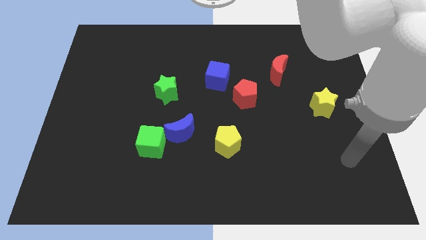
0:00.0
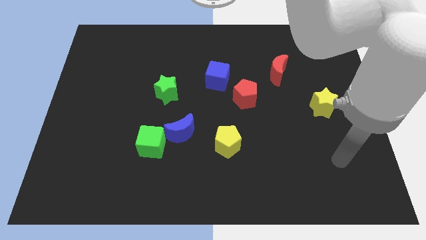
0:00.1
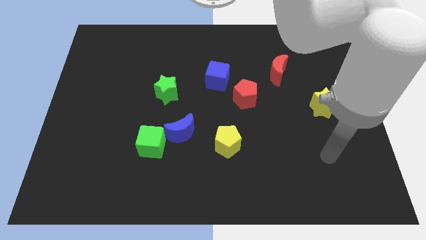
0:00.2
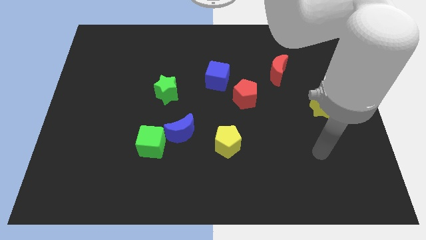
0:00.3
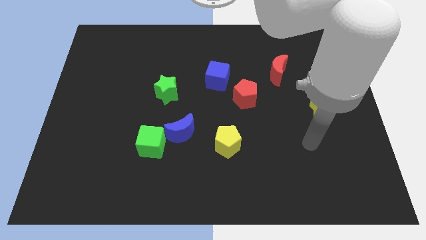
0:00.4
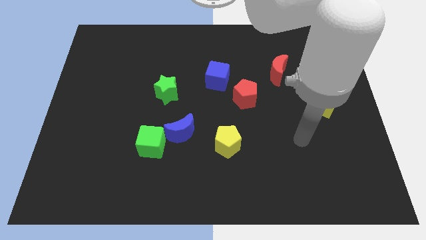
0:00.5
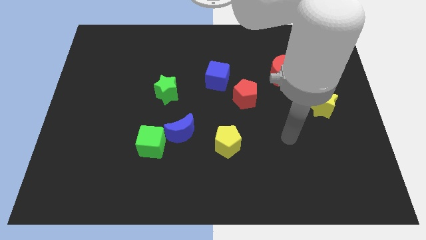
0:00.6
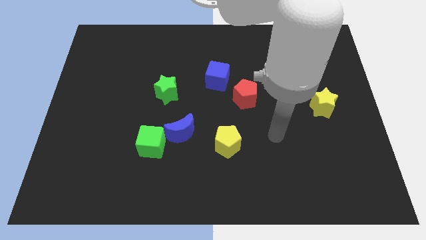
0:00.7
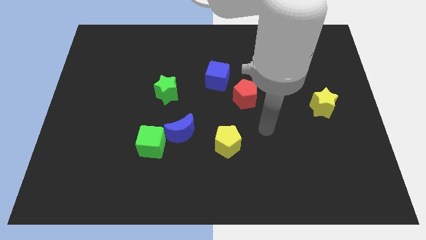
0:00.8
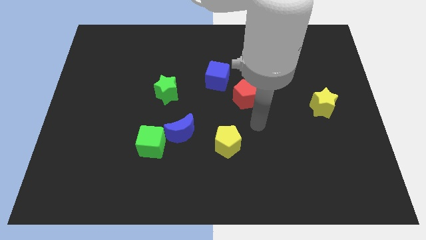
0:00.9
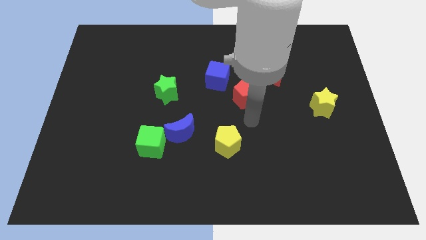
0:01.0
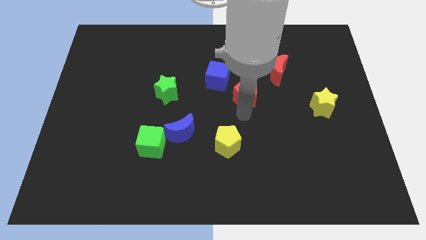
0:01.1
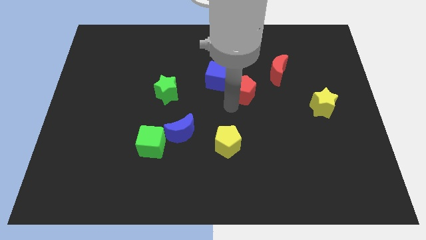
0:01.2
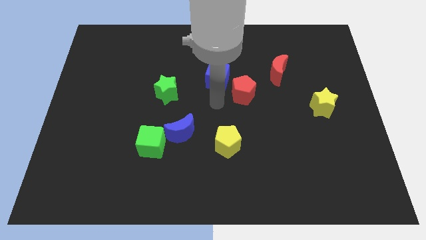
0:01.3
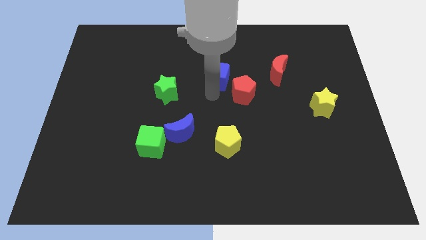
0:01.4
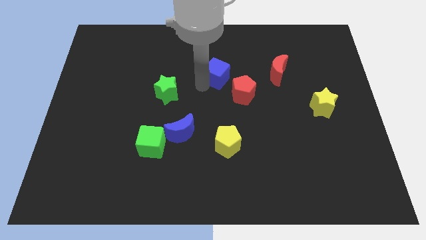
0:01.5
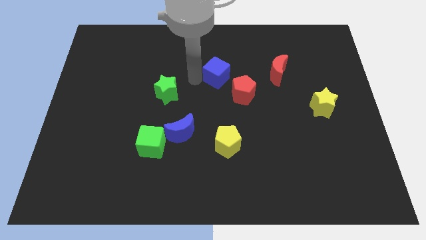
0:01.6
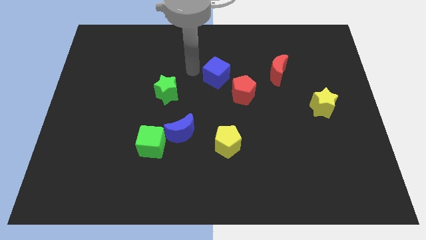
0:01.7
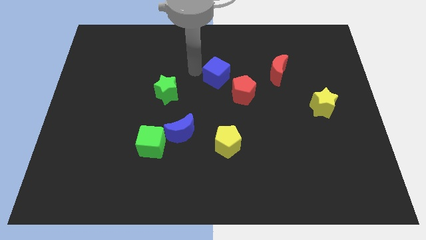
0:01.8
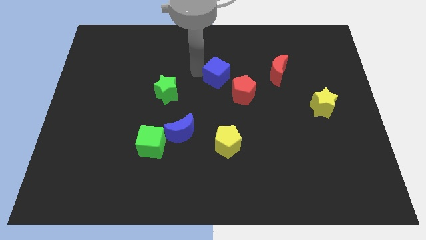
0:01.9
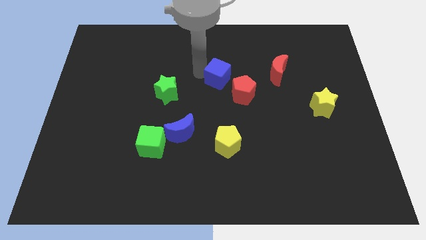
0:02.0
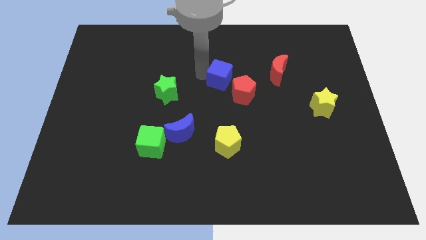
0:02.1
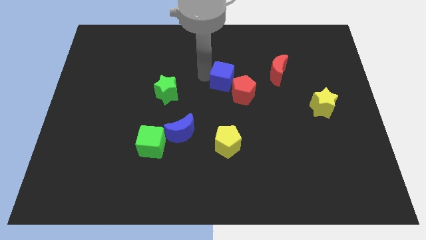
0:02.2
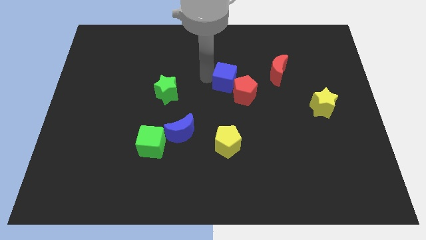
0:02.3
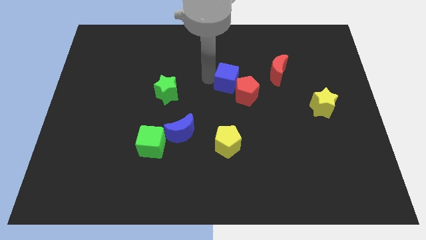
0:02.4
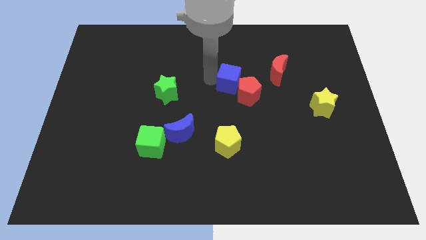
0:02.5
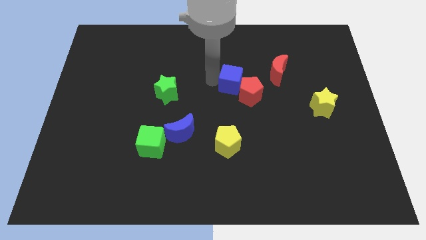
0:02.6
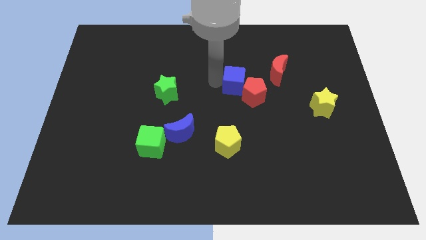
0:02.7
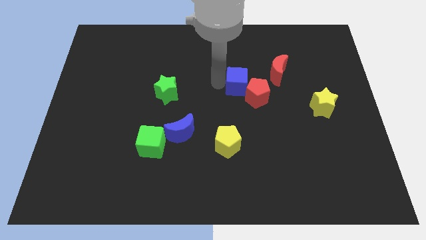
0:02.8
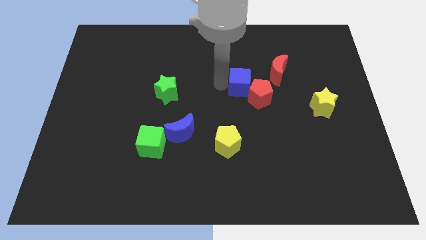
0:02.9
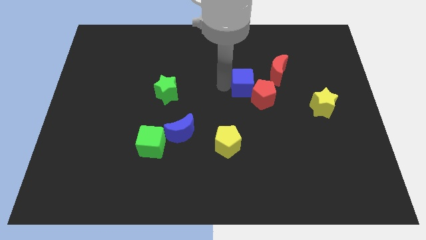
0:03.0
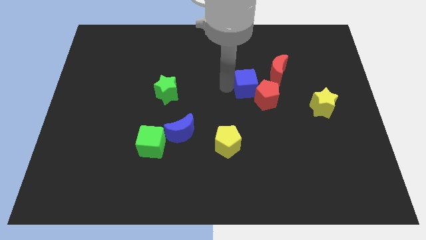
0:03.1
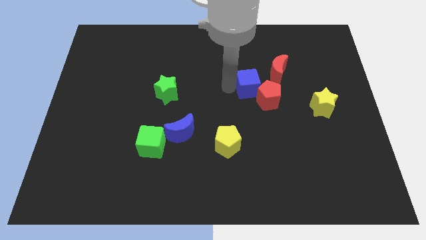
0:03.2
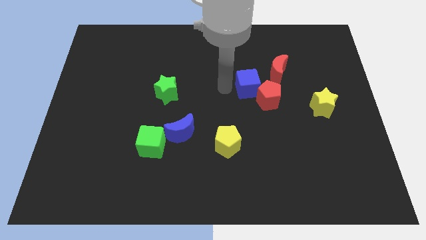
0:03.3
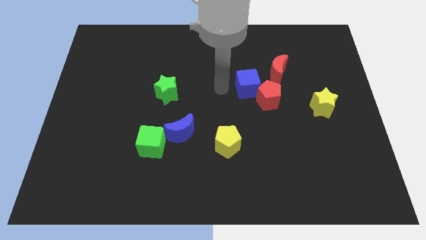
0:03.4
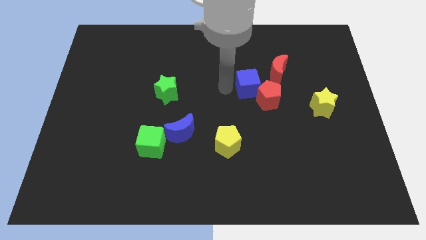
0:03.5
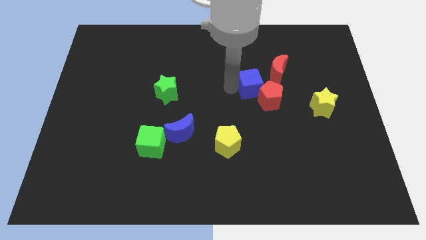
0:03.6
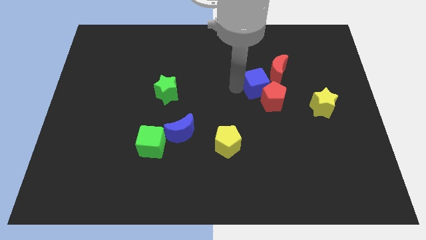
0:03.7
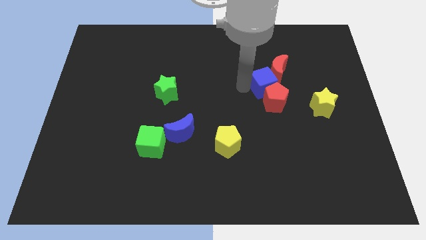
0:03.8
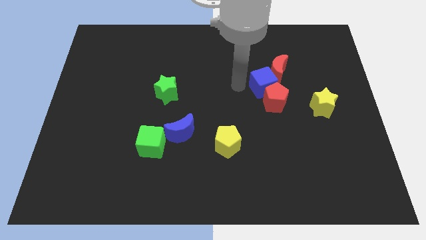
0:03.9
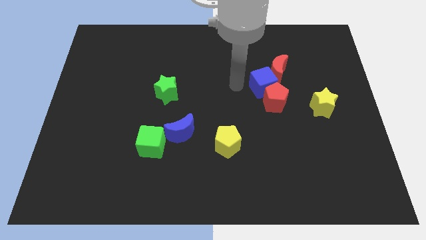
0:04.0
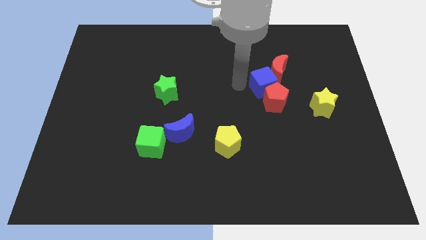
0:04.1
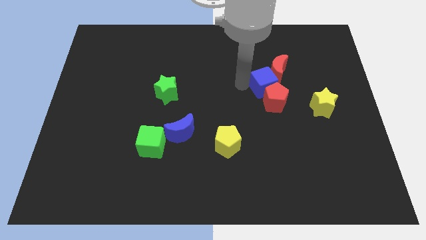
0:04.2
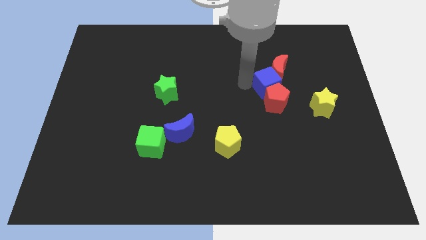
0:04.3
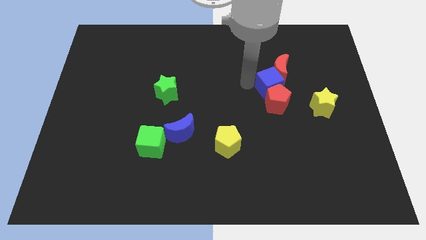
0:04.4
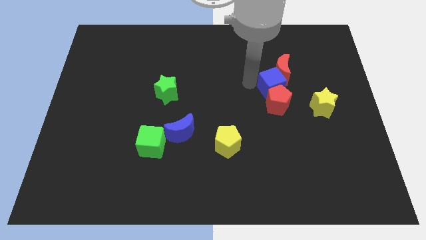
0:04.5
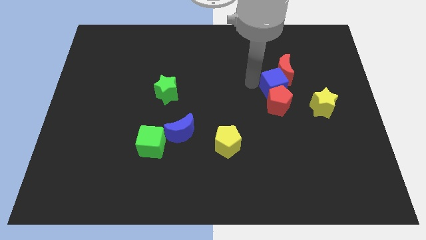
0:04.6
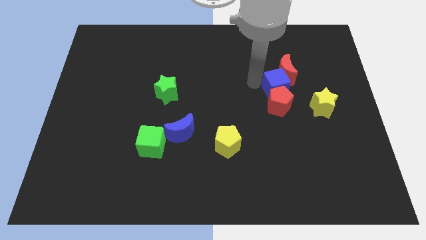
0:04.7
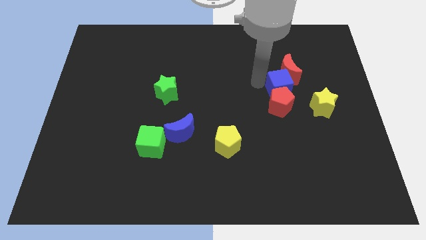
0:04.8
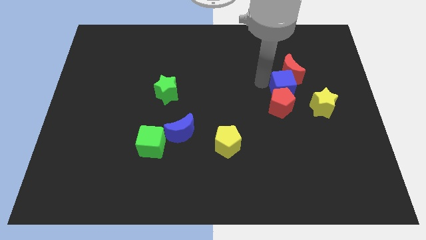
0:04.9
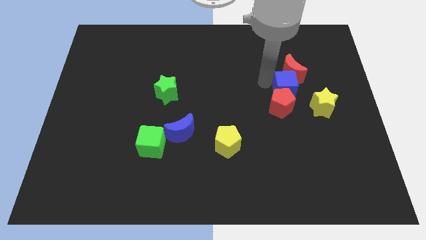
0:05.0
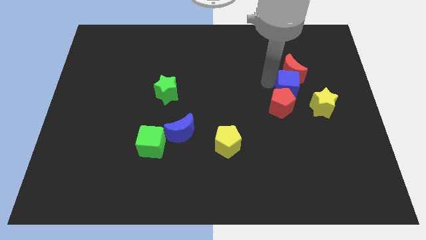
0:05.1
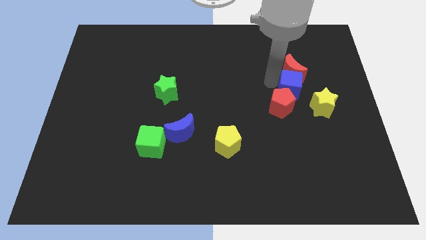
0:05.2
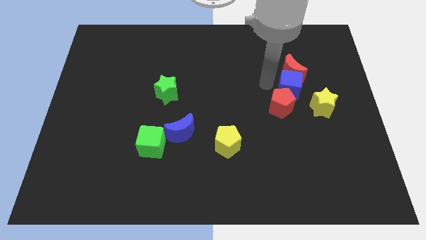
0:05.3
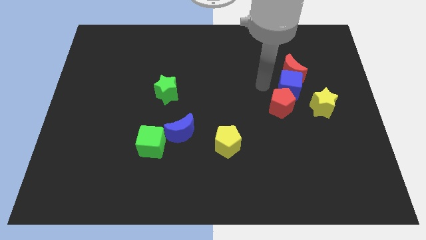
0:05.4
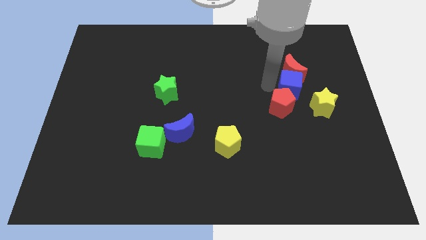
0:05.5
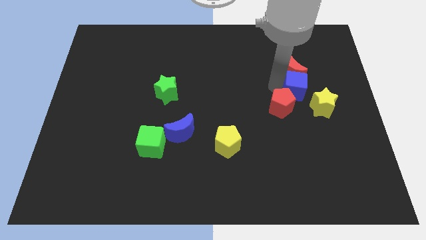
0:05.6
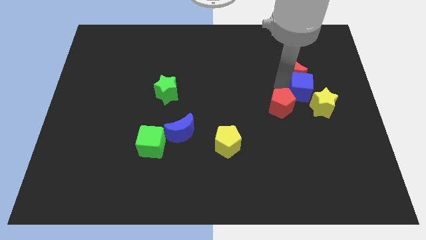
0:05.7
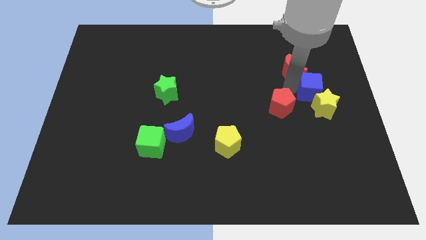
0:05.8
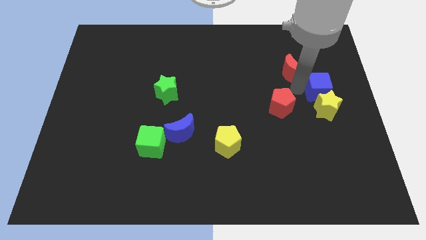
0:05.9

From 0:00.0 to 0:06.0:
move the blue cube to the right side of the board

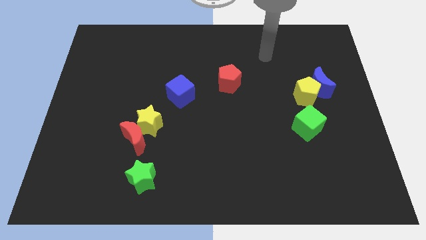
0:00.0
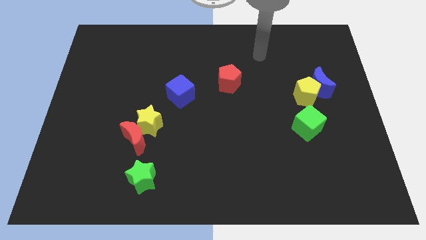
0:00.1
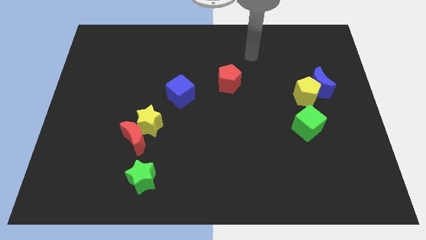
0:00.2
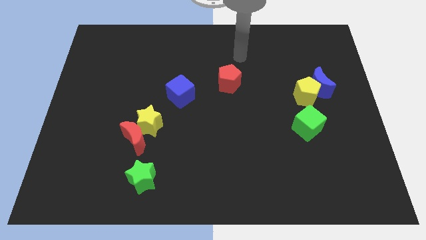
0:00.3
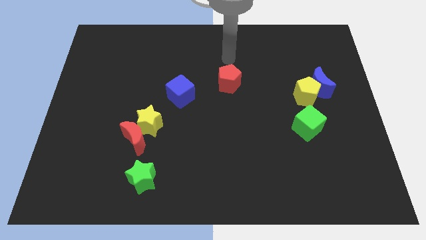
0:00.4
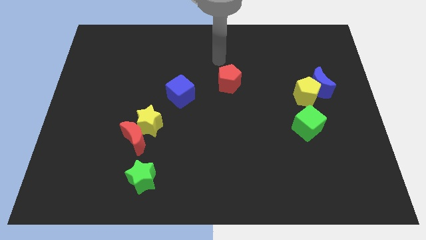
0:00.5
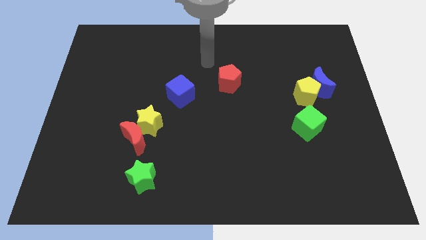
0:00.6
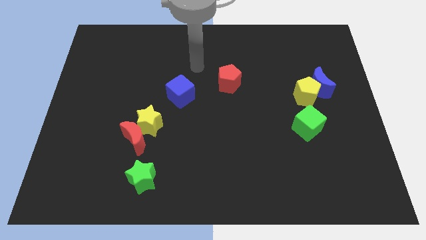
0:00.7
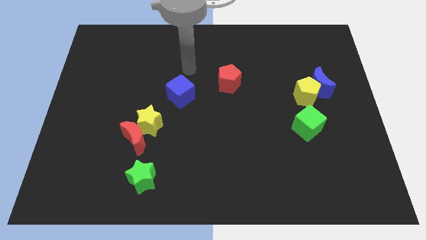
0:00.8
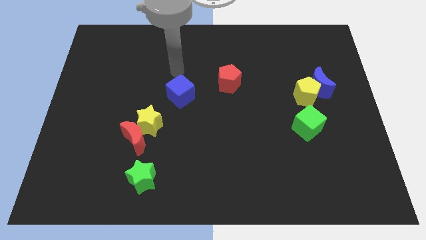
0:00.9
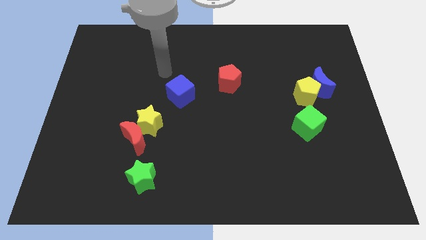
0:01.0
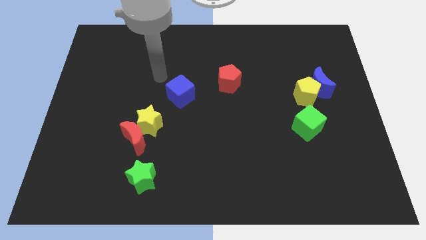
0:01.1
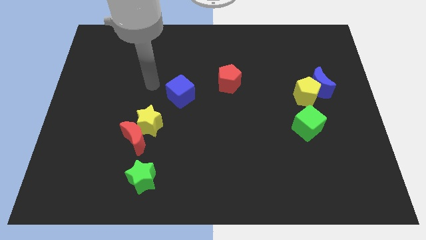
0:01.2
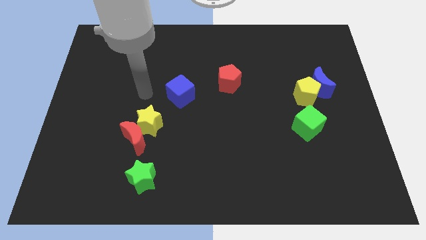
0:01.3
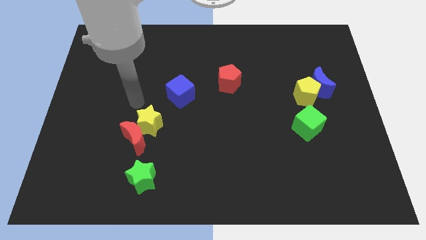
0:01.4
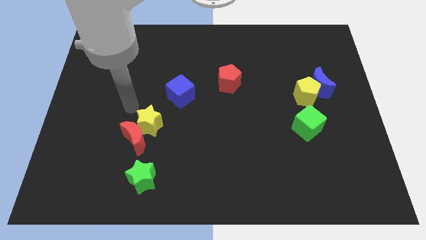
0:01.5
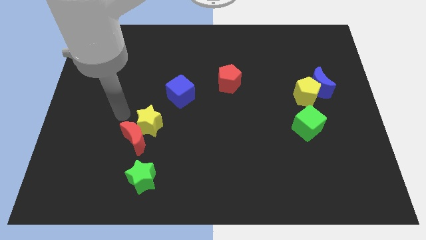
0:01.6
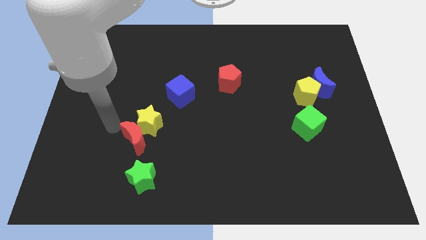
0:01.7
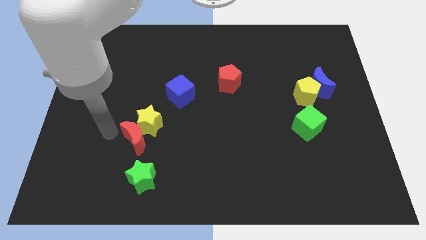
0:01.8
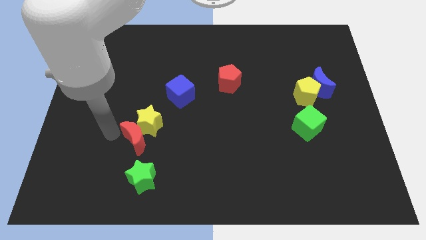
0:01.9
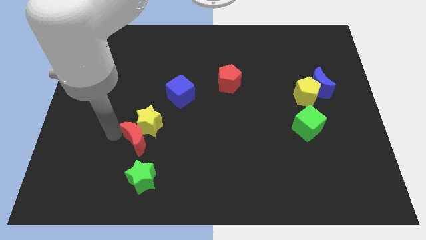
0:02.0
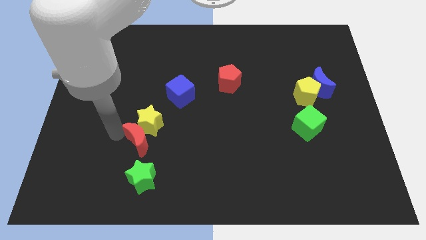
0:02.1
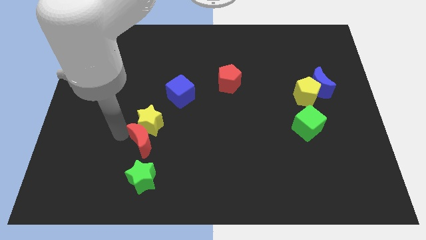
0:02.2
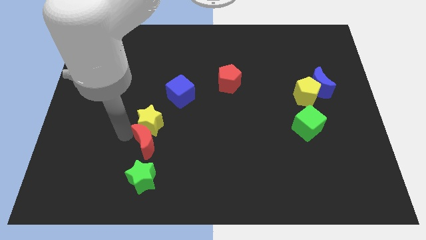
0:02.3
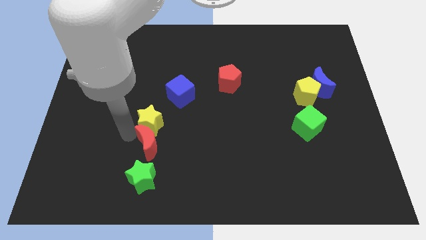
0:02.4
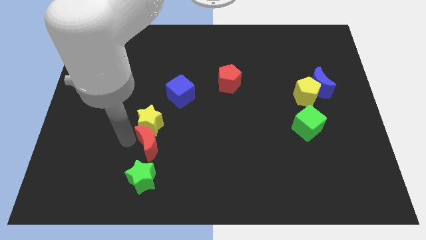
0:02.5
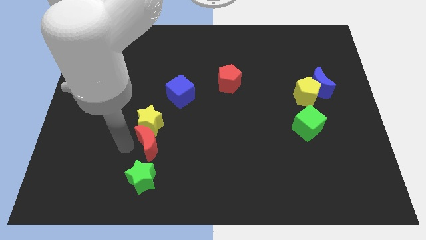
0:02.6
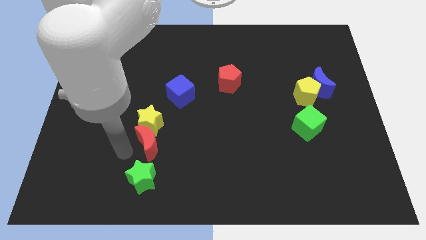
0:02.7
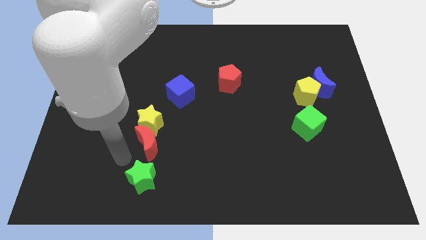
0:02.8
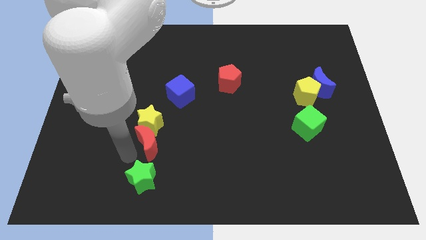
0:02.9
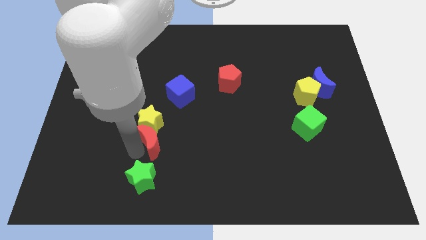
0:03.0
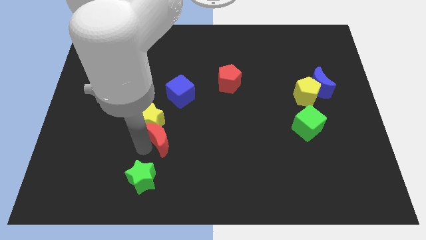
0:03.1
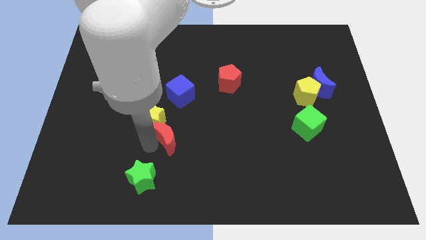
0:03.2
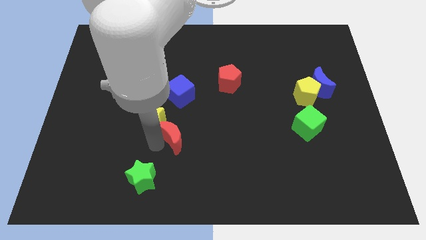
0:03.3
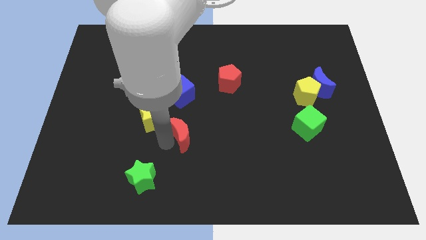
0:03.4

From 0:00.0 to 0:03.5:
put the red moon to the center
